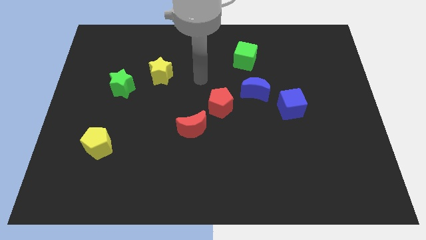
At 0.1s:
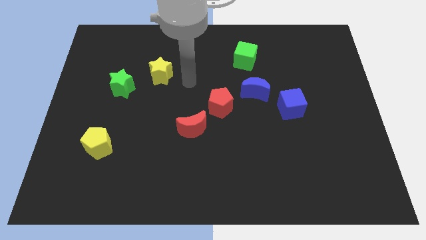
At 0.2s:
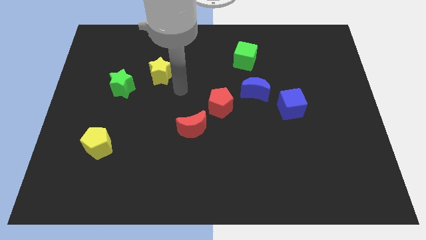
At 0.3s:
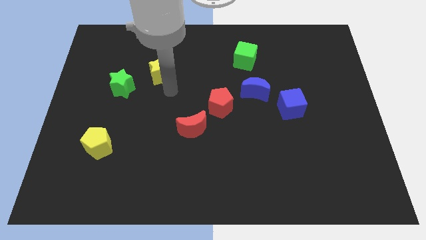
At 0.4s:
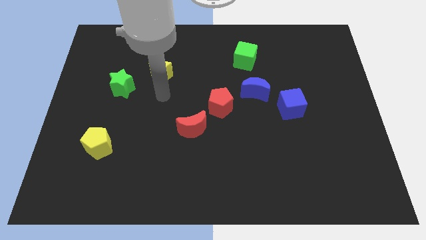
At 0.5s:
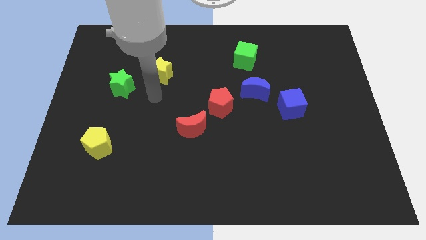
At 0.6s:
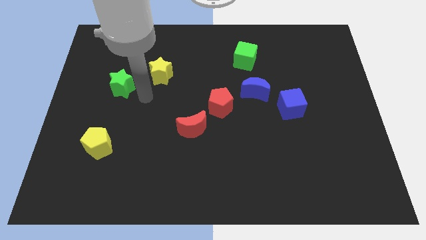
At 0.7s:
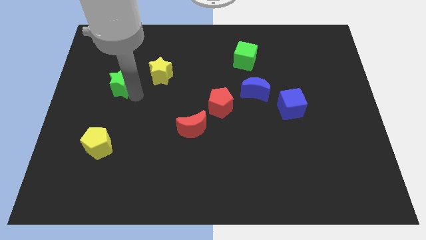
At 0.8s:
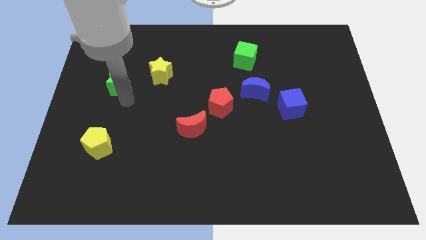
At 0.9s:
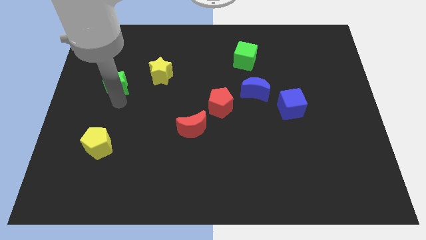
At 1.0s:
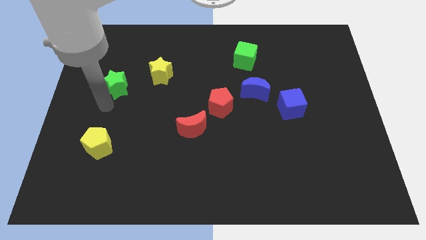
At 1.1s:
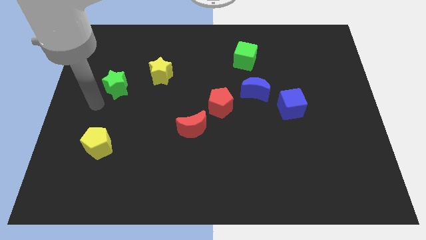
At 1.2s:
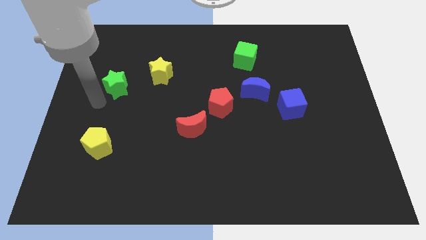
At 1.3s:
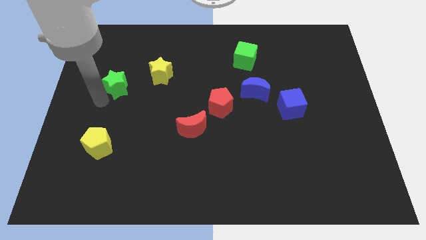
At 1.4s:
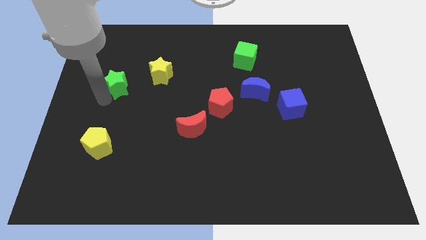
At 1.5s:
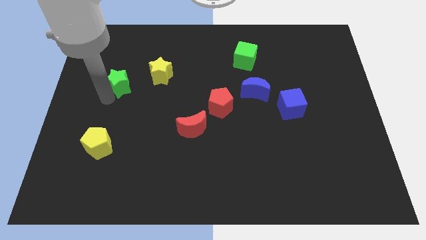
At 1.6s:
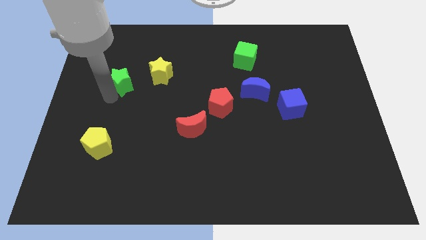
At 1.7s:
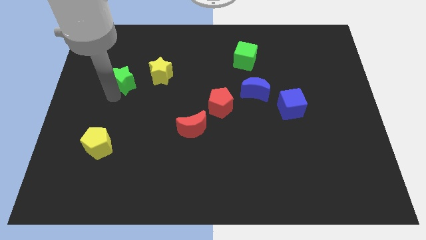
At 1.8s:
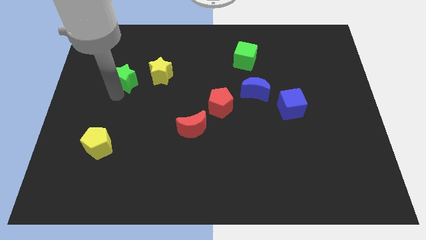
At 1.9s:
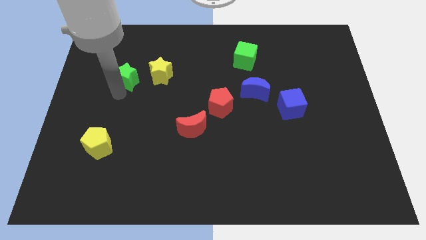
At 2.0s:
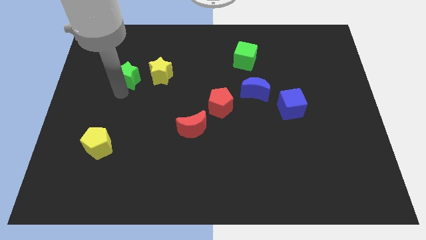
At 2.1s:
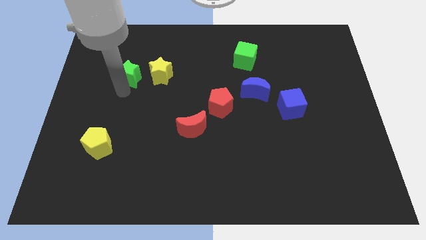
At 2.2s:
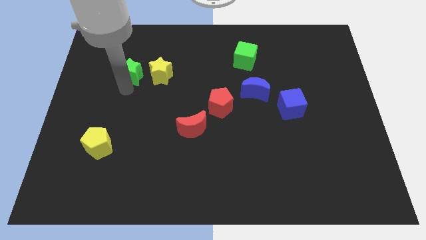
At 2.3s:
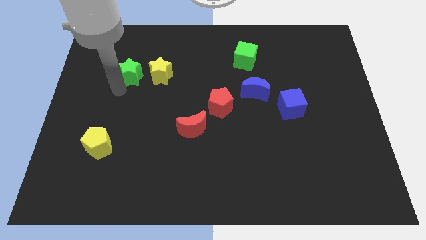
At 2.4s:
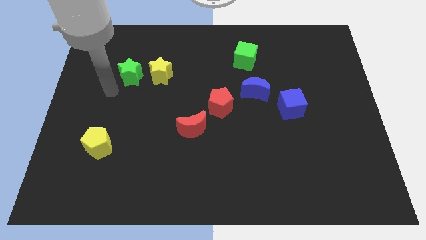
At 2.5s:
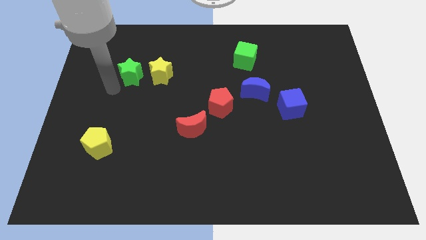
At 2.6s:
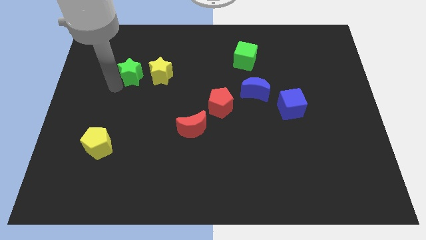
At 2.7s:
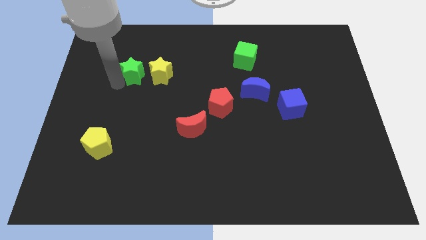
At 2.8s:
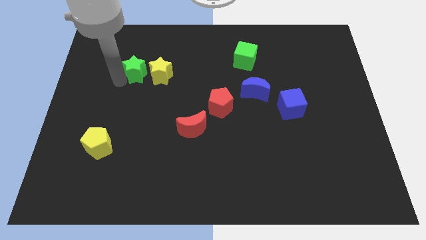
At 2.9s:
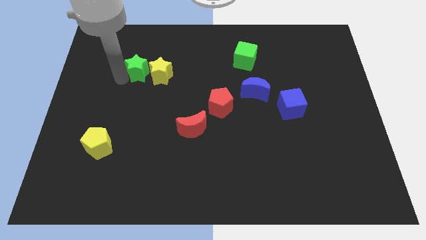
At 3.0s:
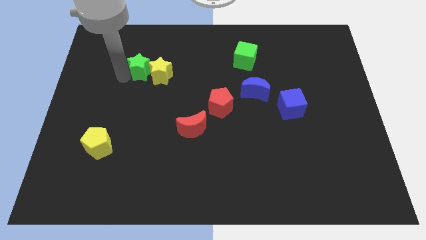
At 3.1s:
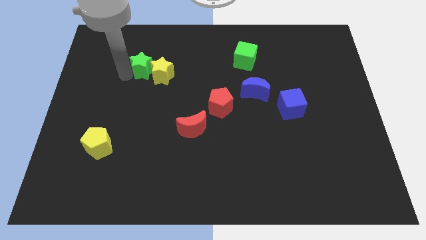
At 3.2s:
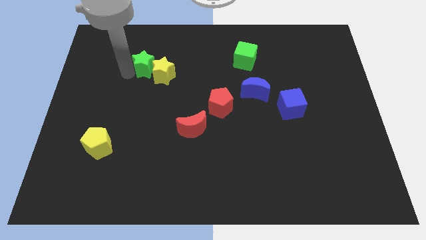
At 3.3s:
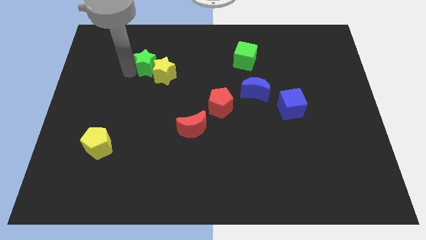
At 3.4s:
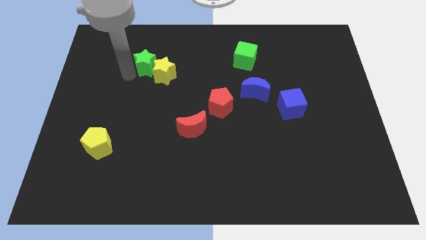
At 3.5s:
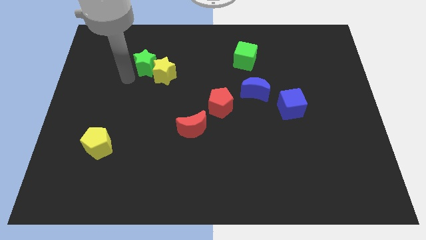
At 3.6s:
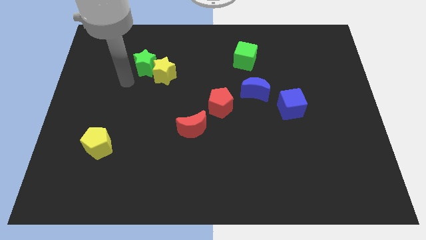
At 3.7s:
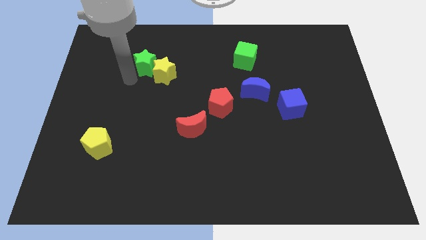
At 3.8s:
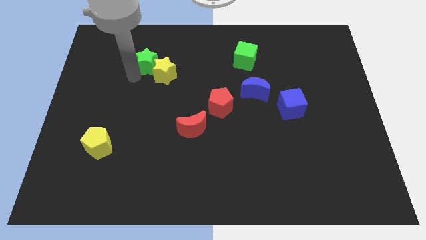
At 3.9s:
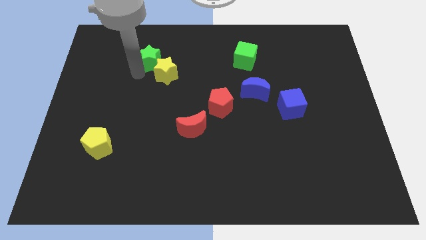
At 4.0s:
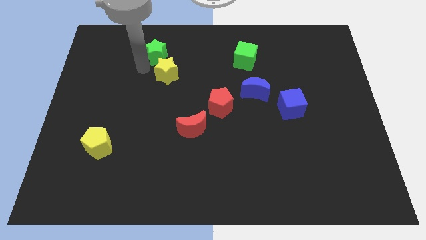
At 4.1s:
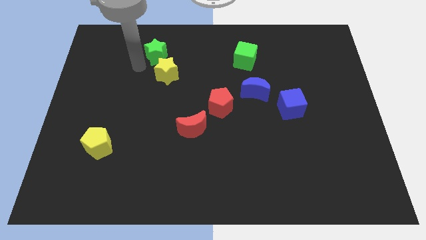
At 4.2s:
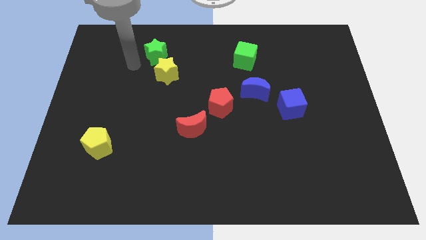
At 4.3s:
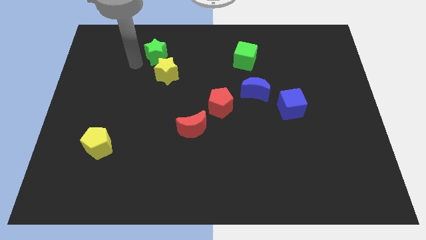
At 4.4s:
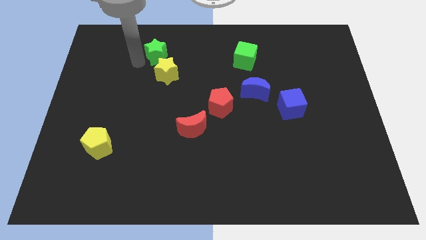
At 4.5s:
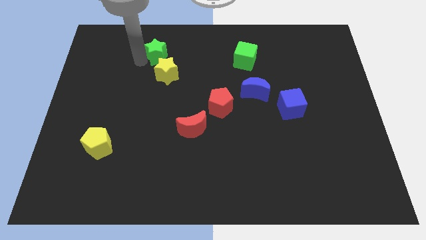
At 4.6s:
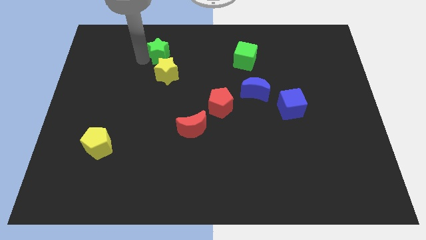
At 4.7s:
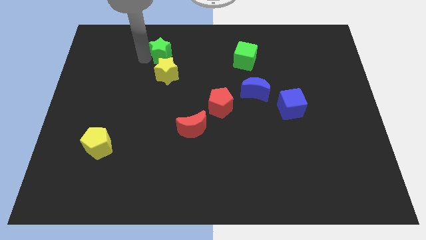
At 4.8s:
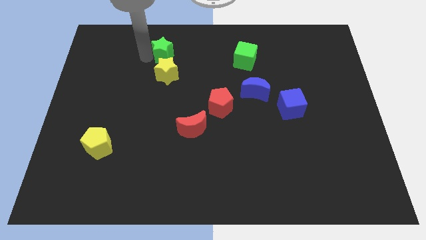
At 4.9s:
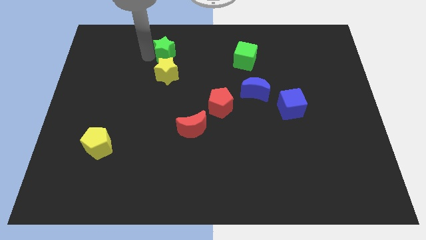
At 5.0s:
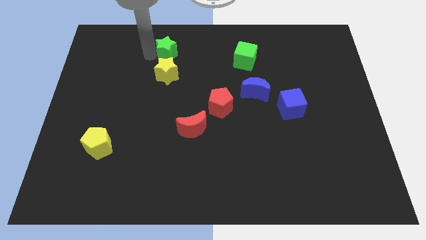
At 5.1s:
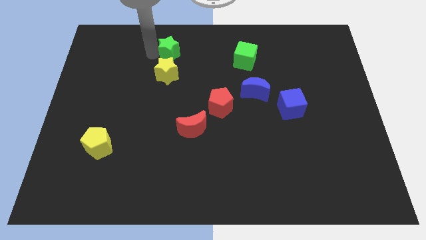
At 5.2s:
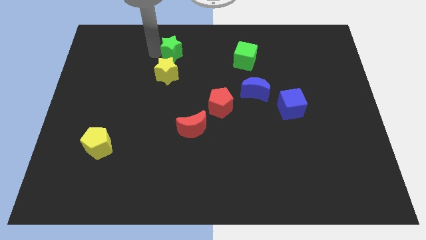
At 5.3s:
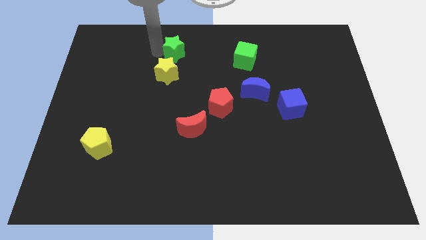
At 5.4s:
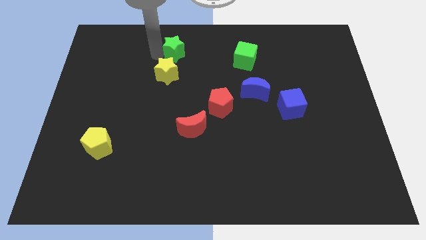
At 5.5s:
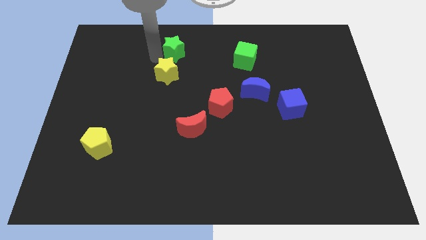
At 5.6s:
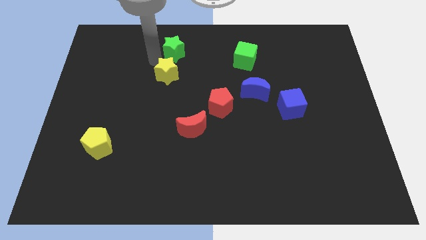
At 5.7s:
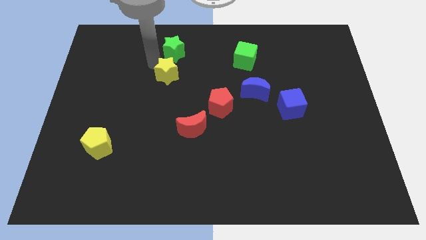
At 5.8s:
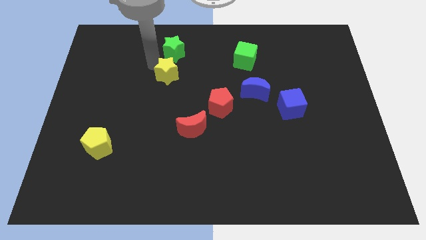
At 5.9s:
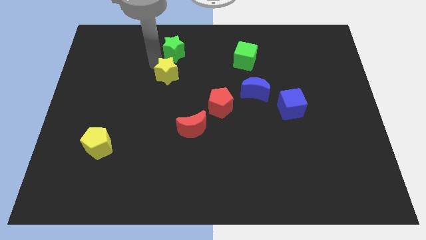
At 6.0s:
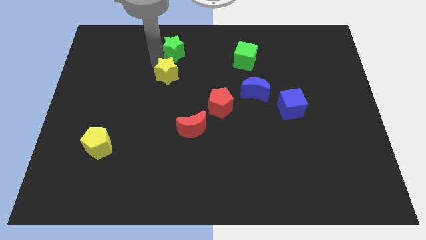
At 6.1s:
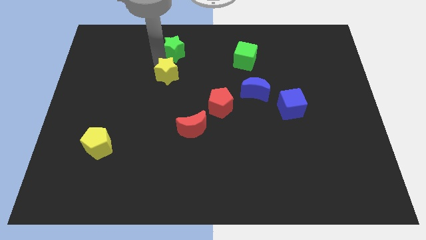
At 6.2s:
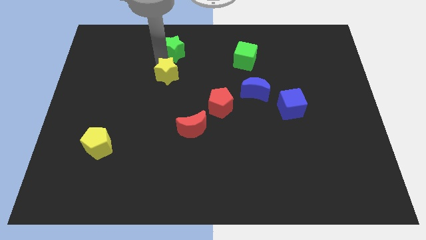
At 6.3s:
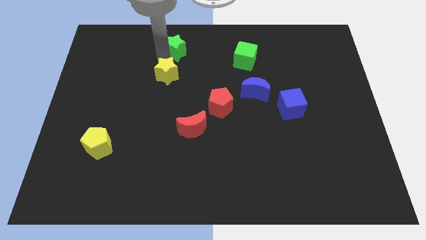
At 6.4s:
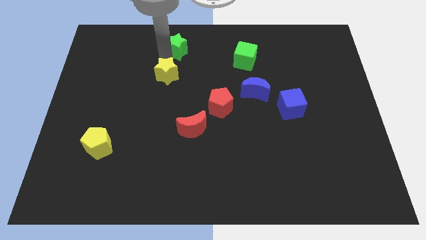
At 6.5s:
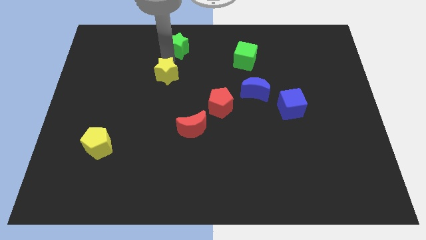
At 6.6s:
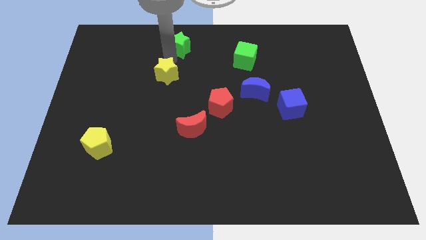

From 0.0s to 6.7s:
slide the green star to the top side
